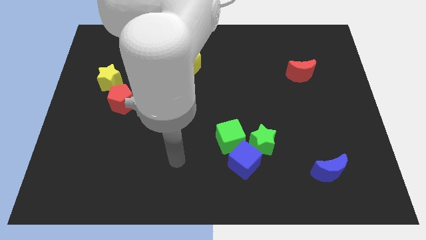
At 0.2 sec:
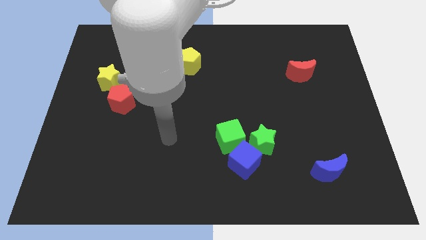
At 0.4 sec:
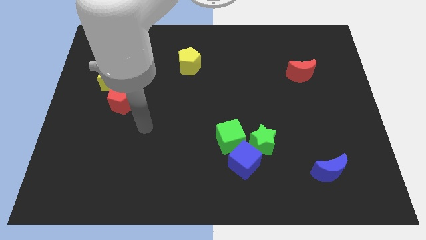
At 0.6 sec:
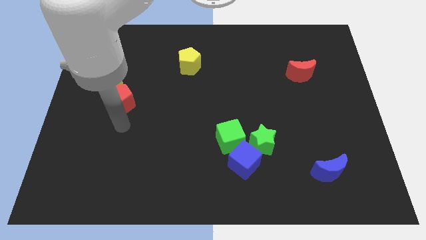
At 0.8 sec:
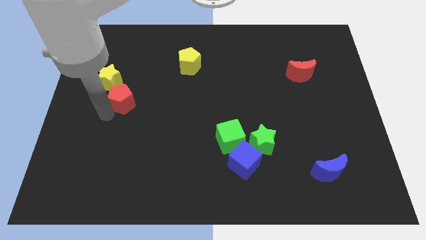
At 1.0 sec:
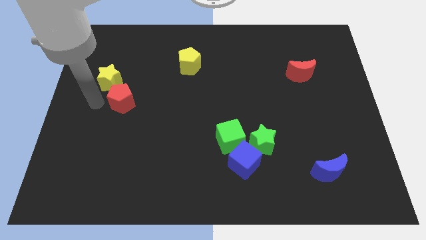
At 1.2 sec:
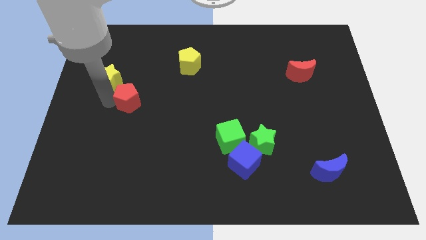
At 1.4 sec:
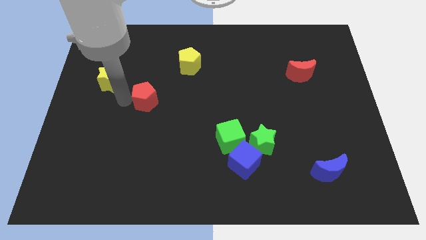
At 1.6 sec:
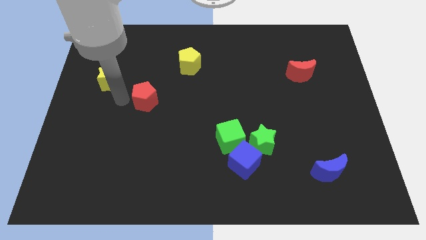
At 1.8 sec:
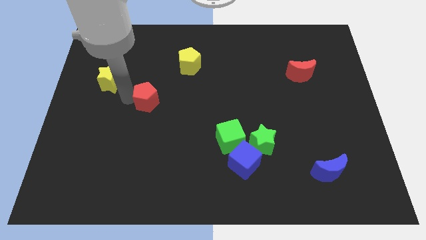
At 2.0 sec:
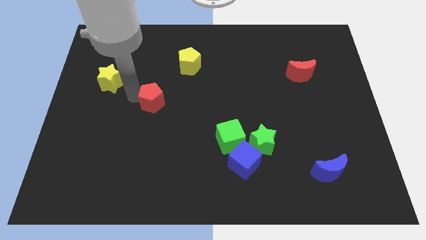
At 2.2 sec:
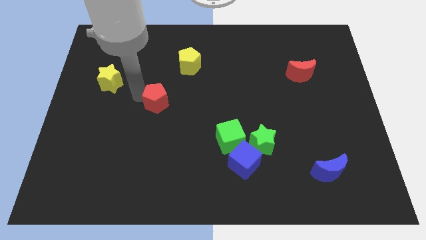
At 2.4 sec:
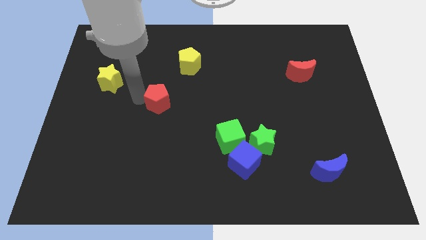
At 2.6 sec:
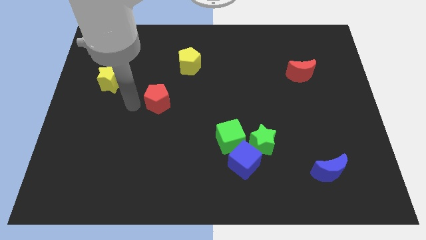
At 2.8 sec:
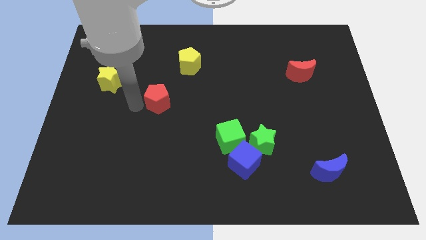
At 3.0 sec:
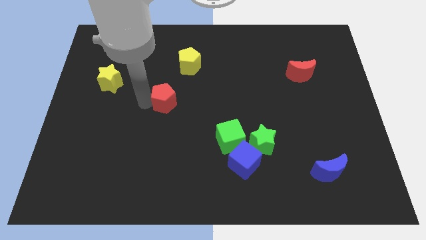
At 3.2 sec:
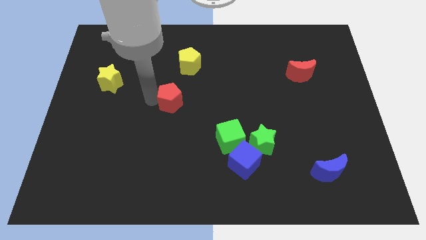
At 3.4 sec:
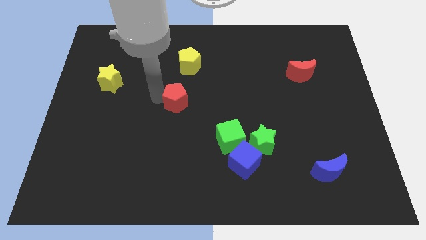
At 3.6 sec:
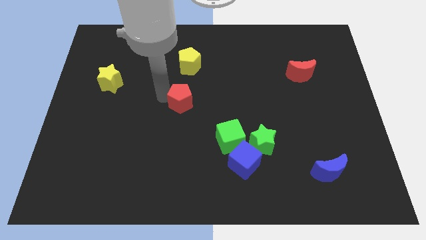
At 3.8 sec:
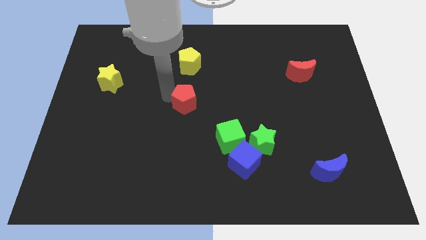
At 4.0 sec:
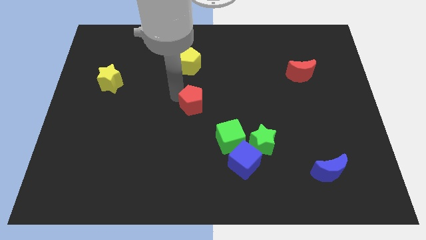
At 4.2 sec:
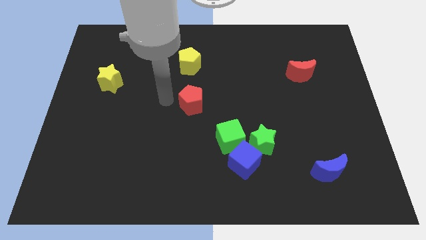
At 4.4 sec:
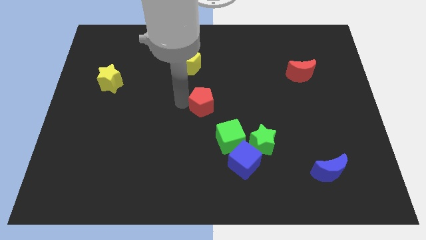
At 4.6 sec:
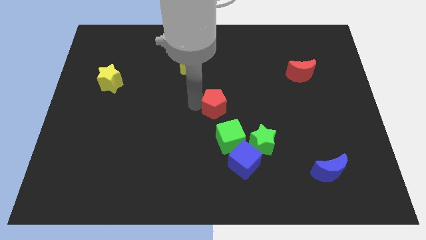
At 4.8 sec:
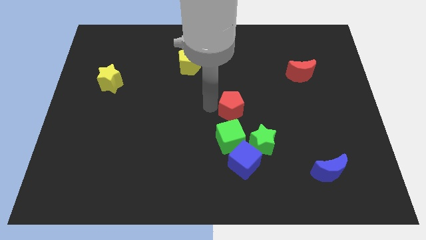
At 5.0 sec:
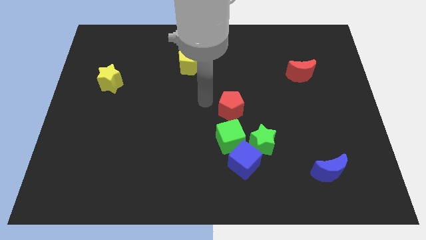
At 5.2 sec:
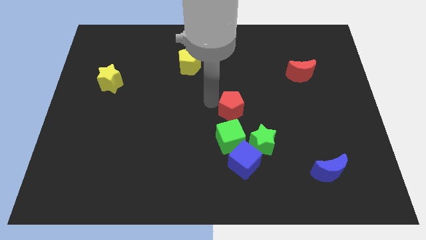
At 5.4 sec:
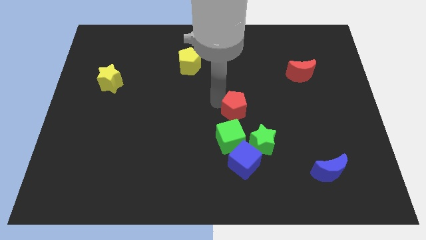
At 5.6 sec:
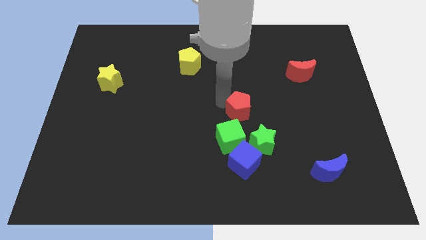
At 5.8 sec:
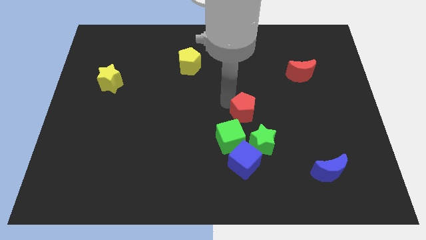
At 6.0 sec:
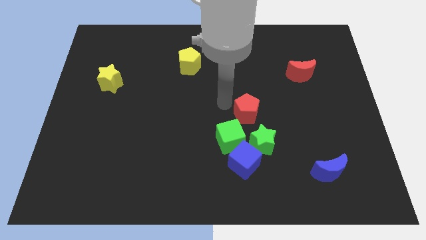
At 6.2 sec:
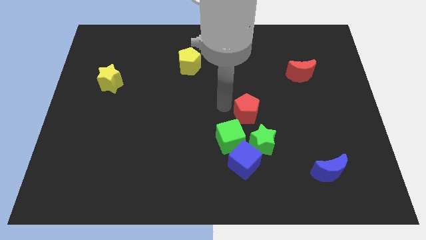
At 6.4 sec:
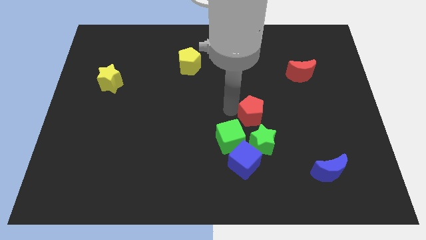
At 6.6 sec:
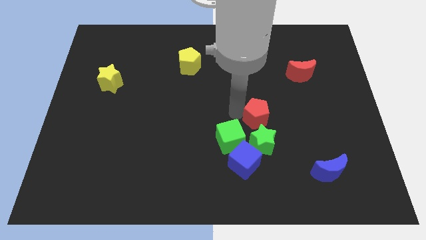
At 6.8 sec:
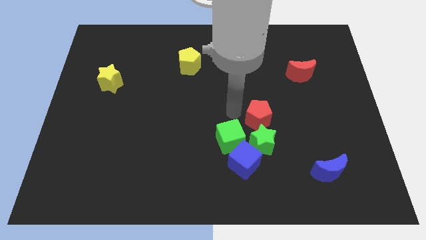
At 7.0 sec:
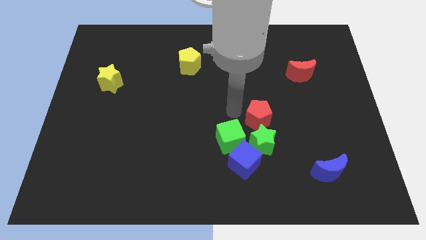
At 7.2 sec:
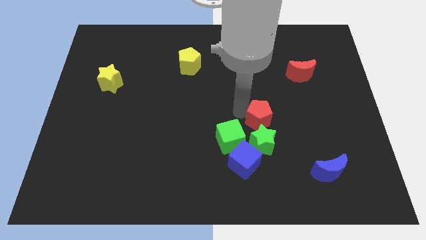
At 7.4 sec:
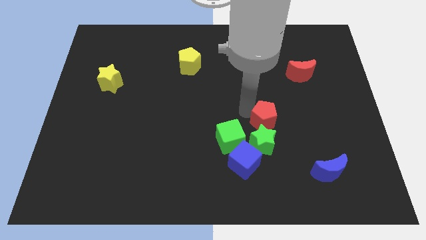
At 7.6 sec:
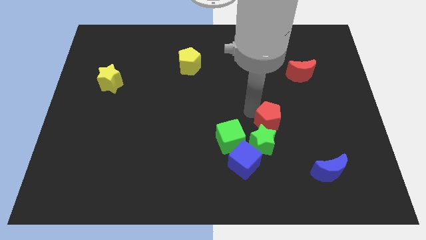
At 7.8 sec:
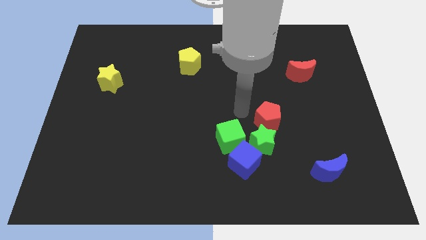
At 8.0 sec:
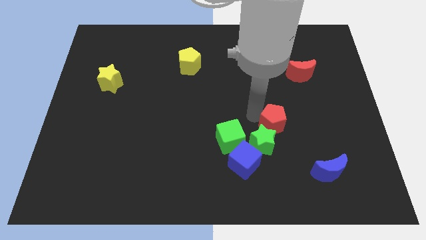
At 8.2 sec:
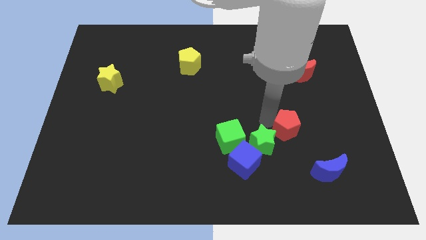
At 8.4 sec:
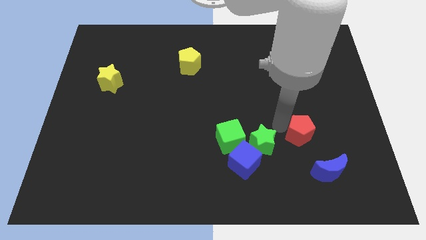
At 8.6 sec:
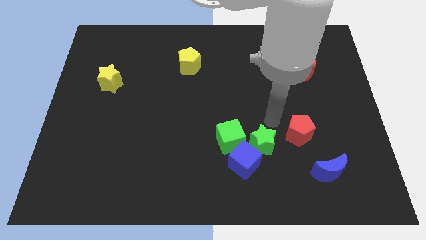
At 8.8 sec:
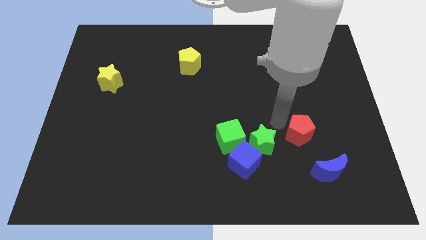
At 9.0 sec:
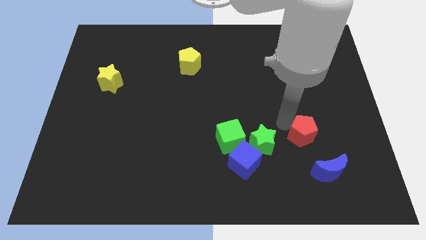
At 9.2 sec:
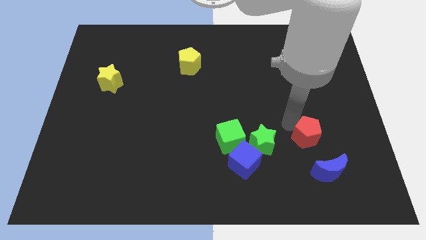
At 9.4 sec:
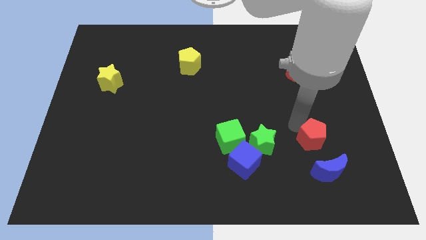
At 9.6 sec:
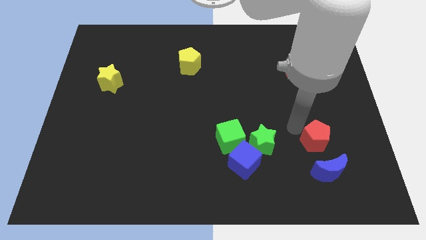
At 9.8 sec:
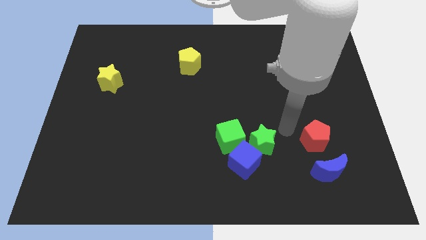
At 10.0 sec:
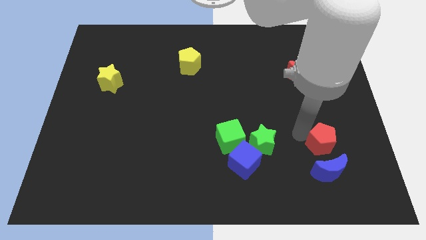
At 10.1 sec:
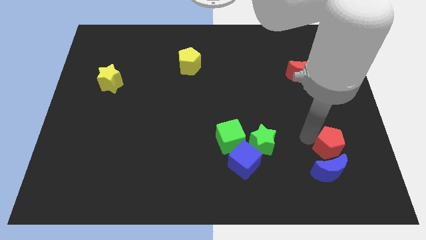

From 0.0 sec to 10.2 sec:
push the red pentagon diagonally up and to the right of the blue moon

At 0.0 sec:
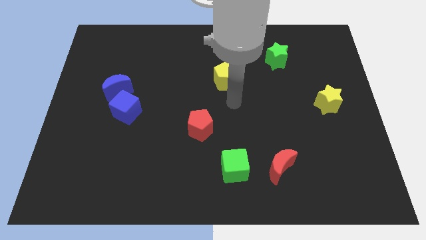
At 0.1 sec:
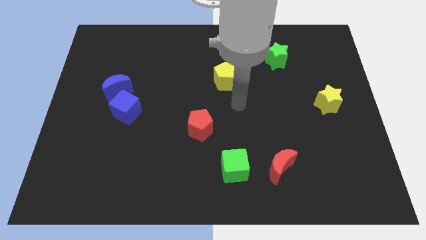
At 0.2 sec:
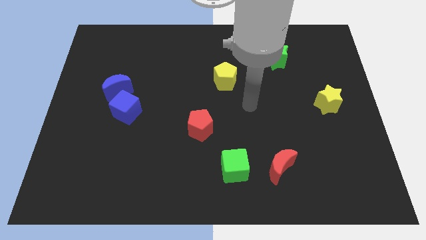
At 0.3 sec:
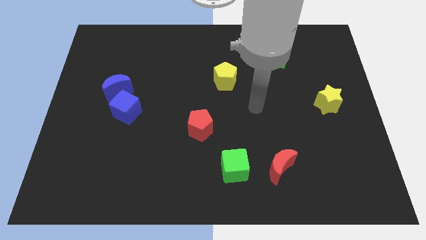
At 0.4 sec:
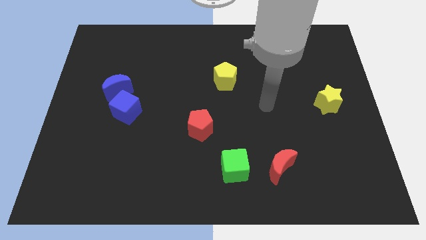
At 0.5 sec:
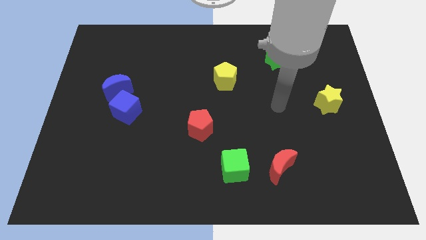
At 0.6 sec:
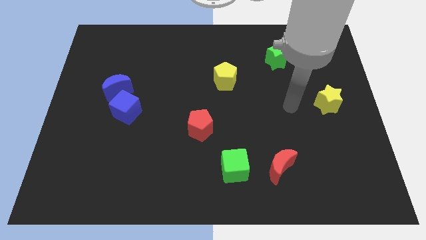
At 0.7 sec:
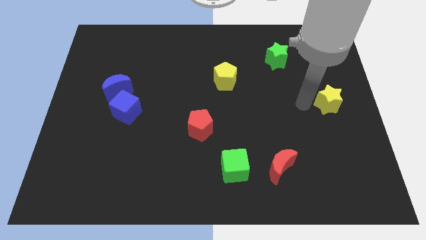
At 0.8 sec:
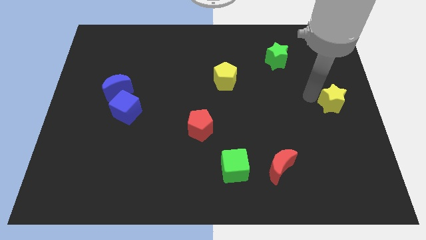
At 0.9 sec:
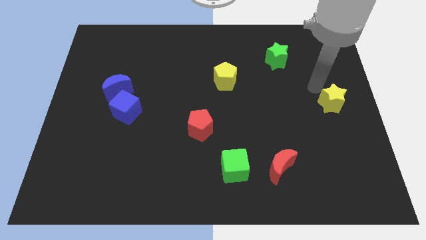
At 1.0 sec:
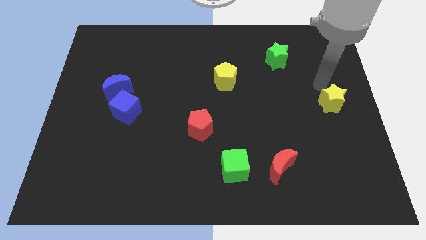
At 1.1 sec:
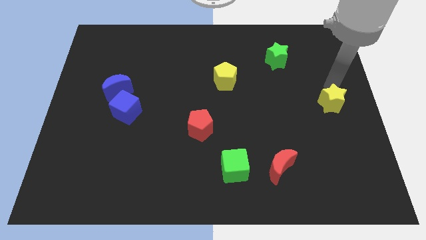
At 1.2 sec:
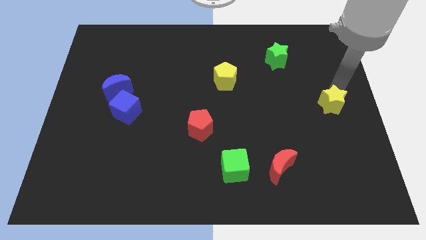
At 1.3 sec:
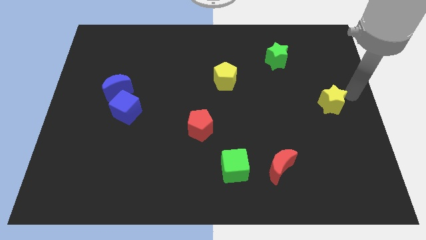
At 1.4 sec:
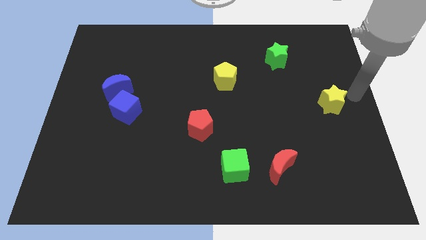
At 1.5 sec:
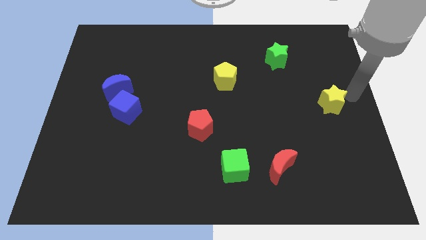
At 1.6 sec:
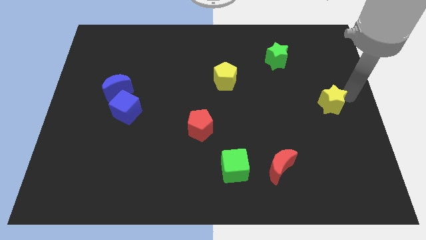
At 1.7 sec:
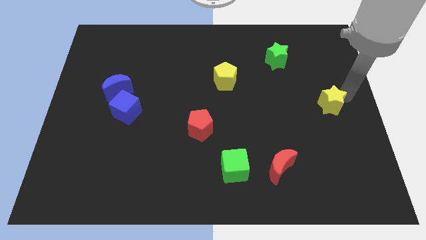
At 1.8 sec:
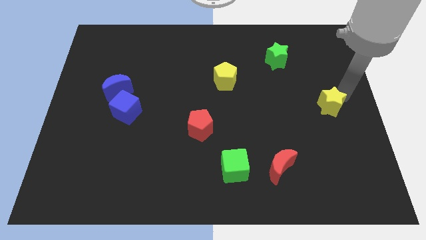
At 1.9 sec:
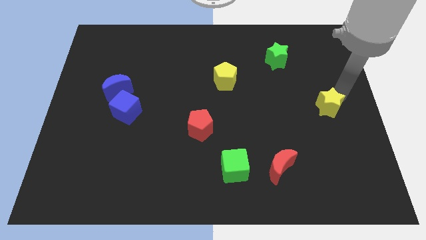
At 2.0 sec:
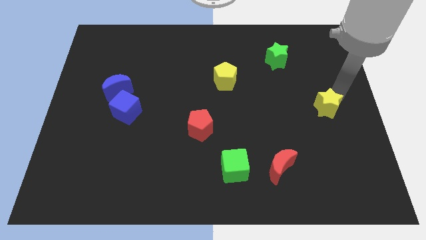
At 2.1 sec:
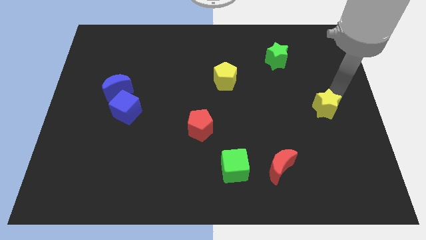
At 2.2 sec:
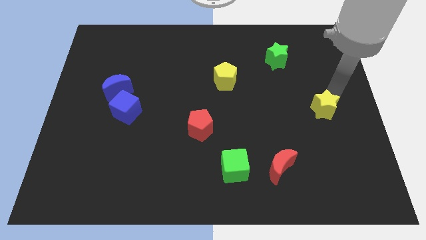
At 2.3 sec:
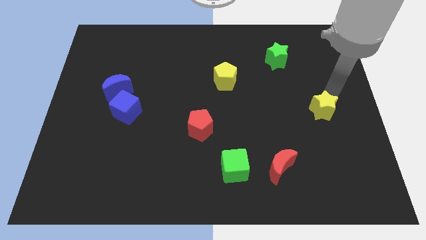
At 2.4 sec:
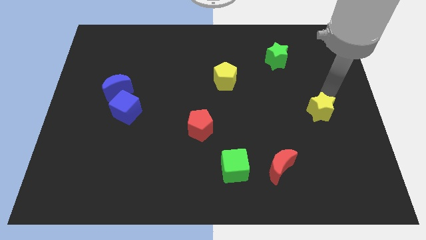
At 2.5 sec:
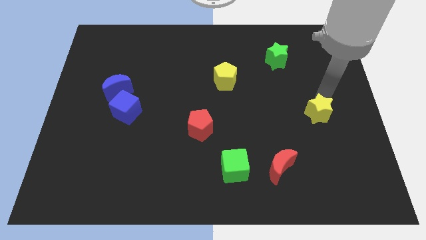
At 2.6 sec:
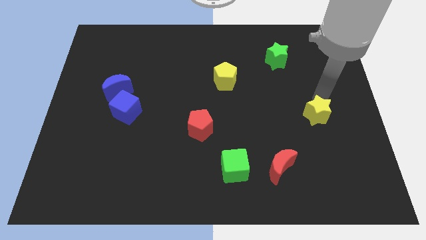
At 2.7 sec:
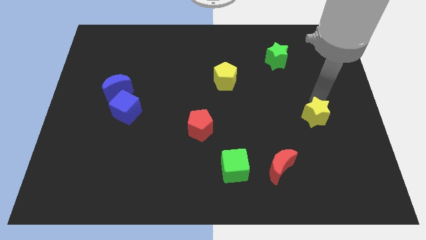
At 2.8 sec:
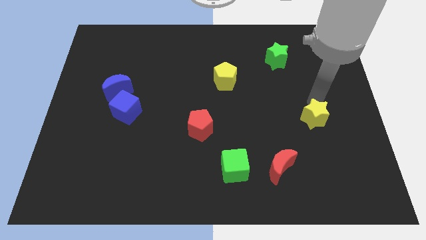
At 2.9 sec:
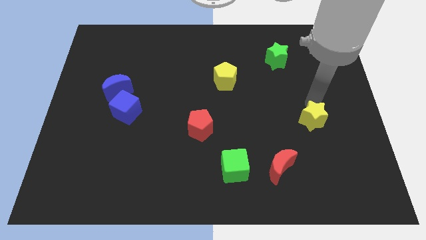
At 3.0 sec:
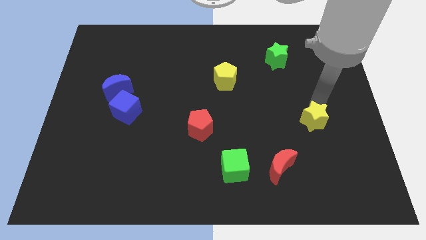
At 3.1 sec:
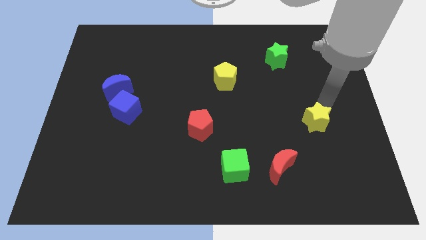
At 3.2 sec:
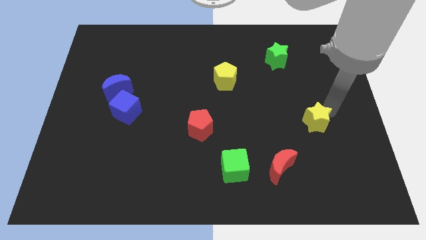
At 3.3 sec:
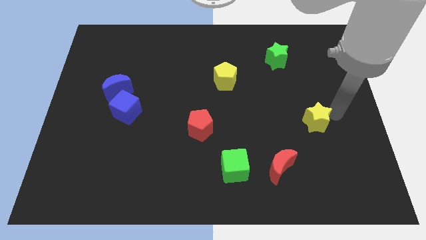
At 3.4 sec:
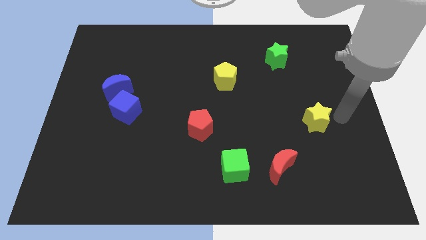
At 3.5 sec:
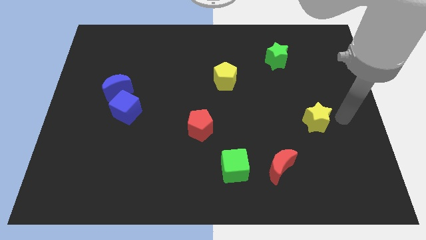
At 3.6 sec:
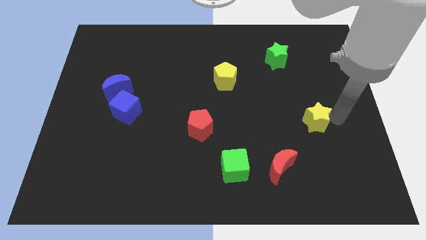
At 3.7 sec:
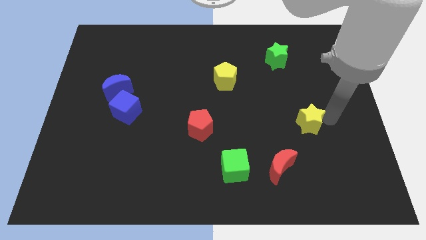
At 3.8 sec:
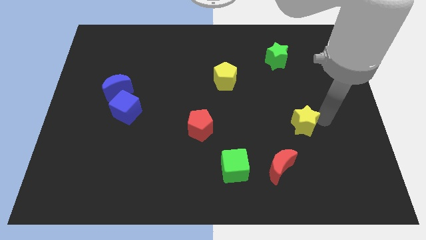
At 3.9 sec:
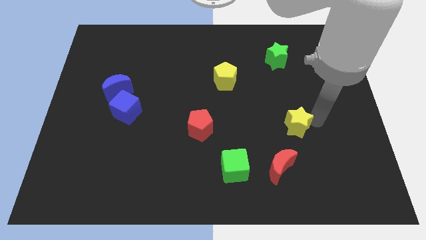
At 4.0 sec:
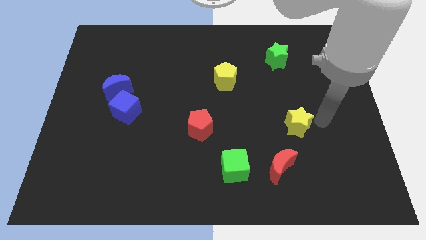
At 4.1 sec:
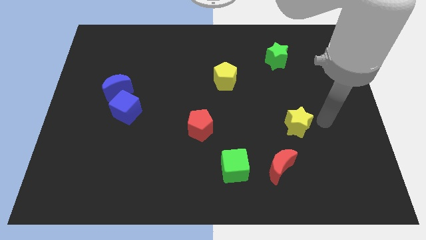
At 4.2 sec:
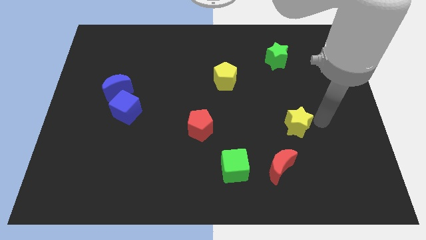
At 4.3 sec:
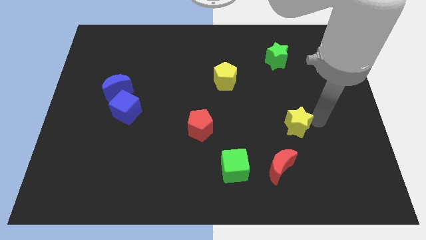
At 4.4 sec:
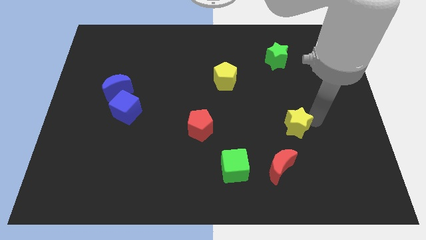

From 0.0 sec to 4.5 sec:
put the yellow star above the red moon
